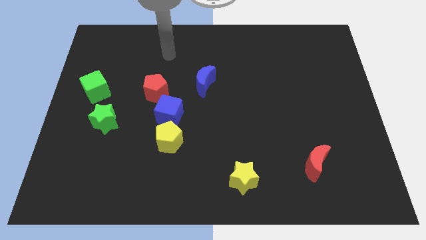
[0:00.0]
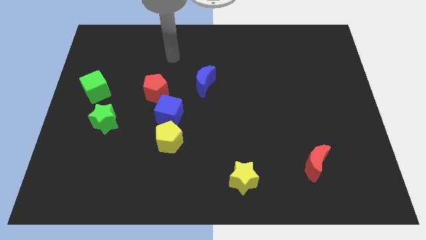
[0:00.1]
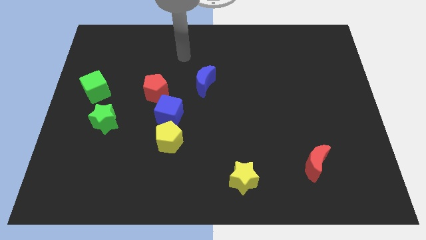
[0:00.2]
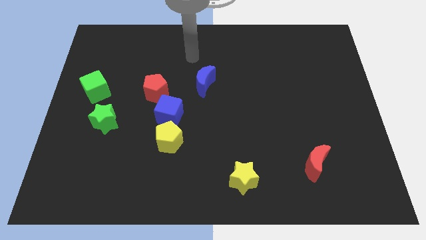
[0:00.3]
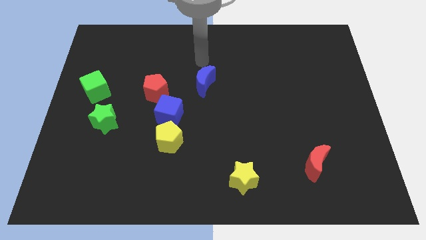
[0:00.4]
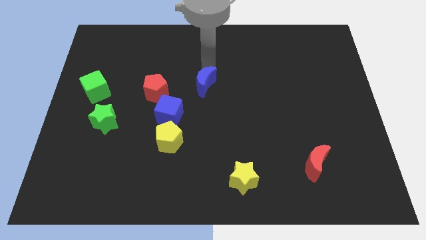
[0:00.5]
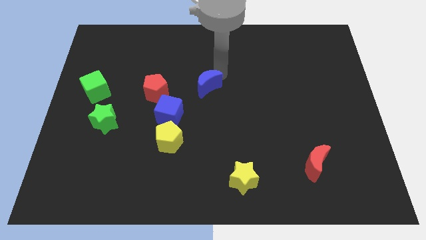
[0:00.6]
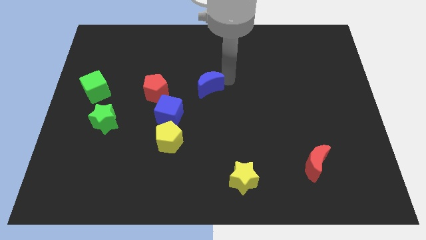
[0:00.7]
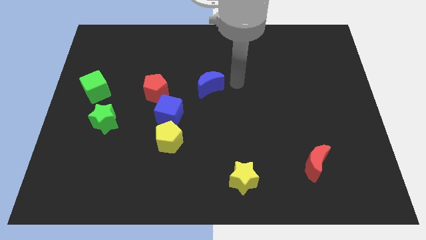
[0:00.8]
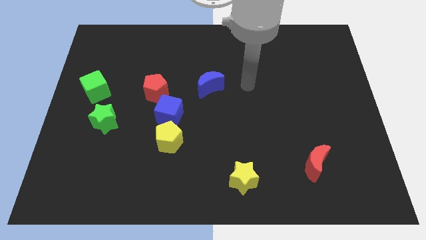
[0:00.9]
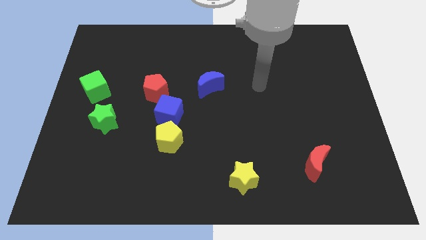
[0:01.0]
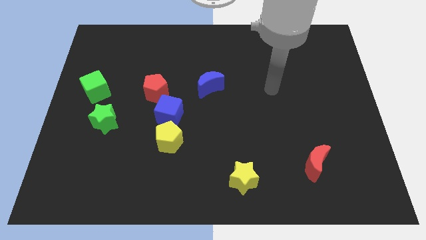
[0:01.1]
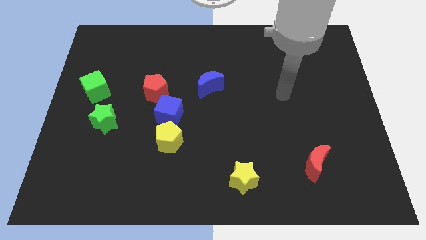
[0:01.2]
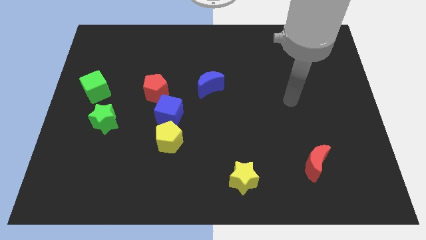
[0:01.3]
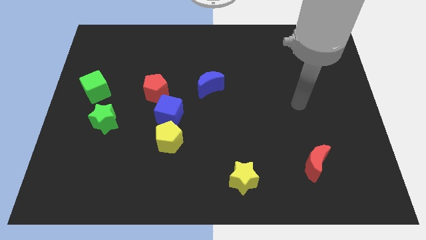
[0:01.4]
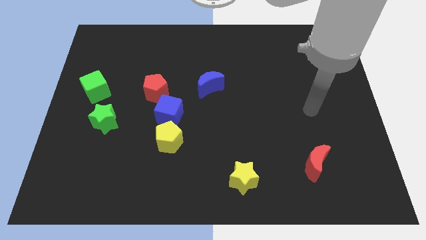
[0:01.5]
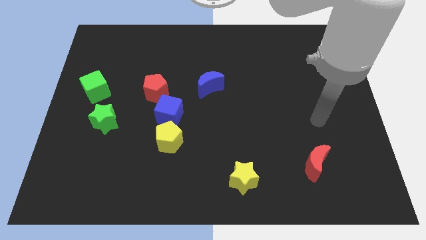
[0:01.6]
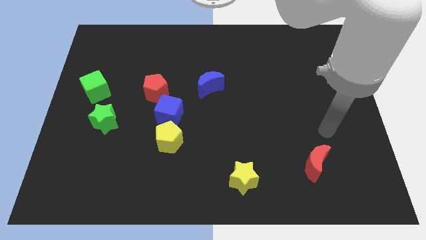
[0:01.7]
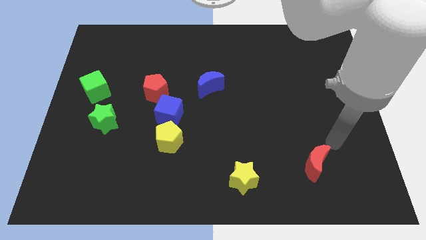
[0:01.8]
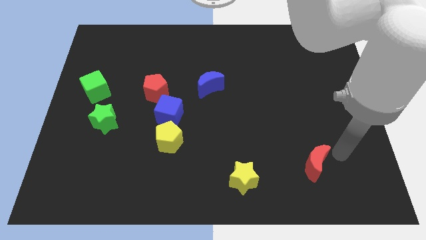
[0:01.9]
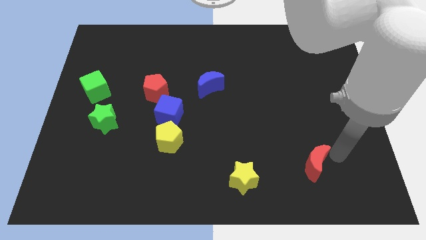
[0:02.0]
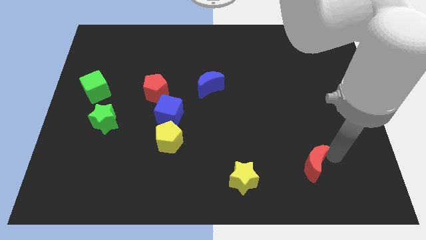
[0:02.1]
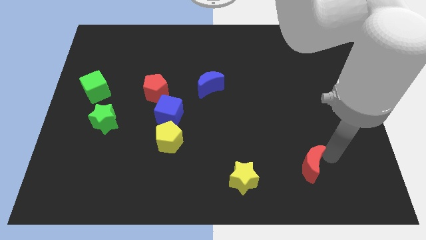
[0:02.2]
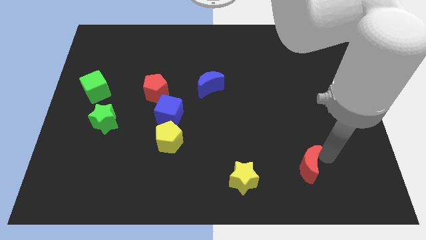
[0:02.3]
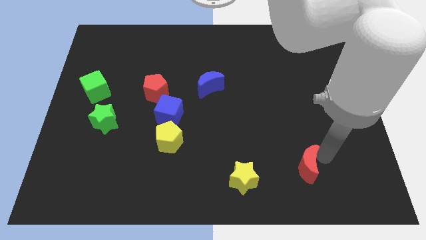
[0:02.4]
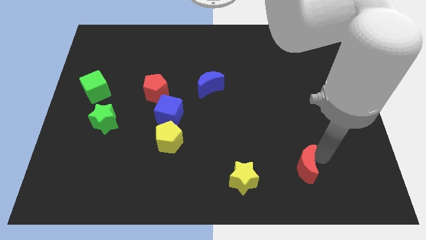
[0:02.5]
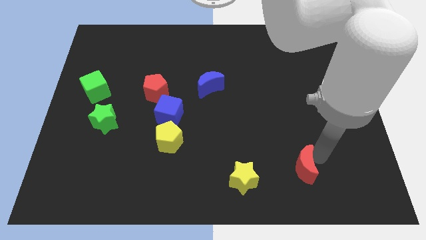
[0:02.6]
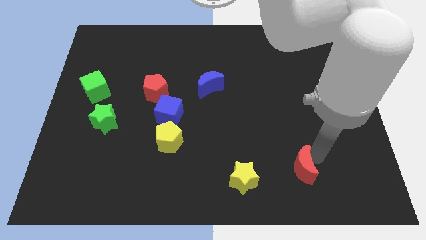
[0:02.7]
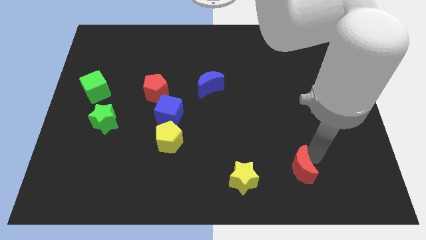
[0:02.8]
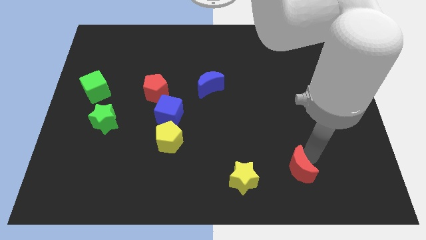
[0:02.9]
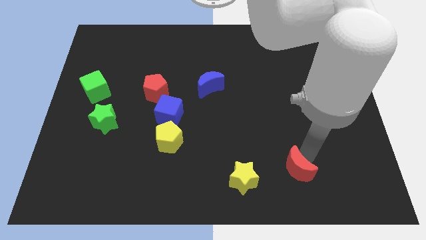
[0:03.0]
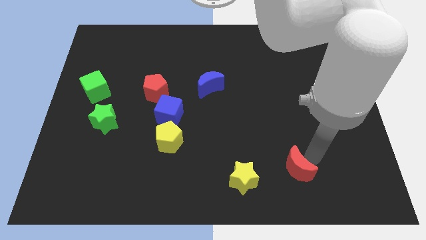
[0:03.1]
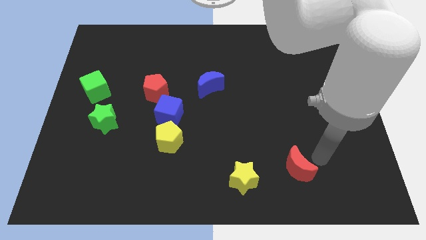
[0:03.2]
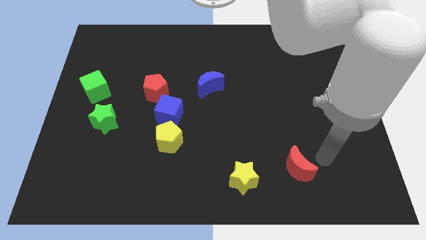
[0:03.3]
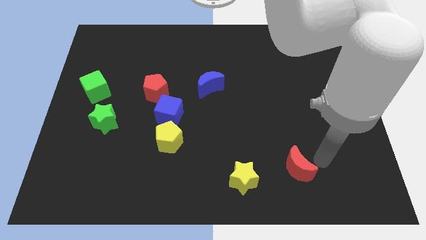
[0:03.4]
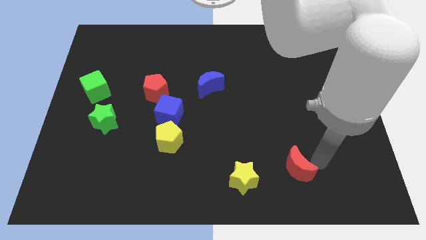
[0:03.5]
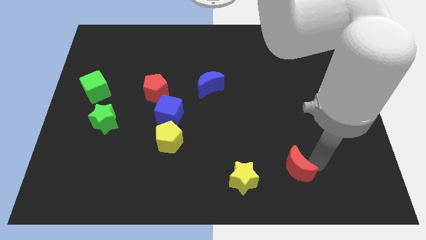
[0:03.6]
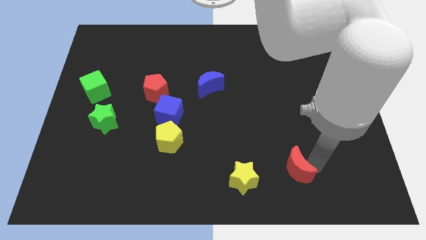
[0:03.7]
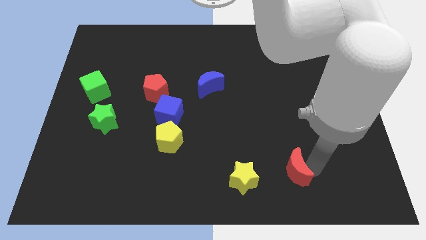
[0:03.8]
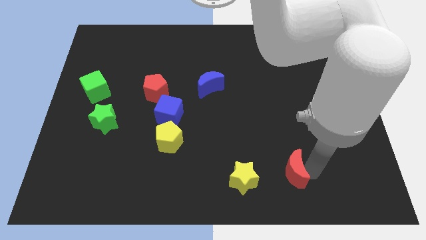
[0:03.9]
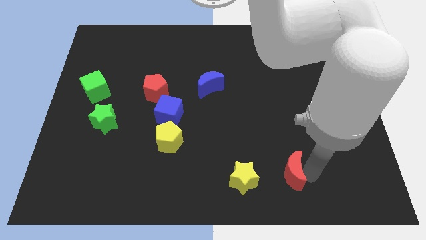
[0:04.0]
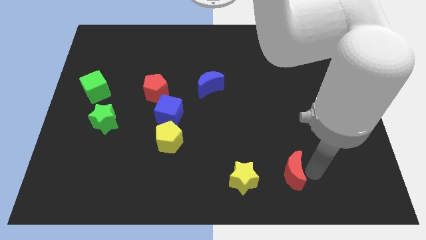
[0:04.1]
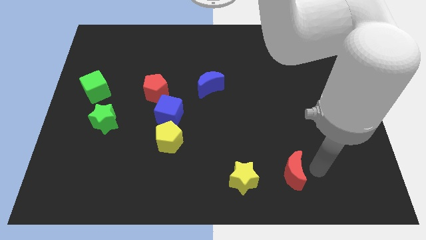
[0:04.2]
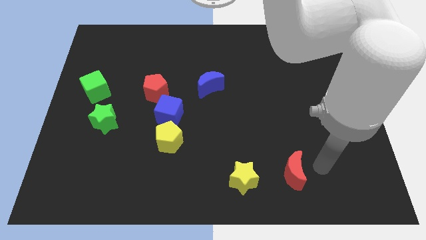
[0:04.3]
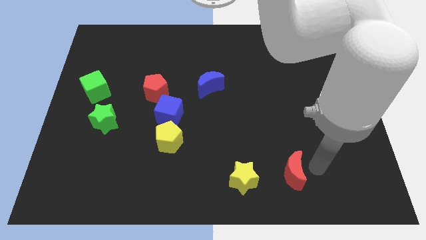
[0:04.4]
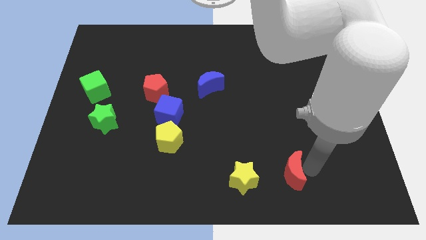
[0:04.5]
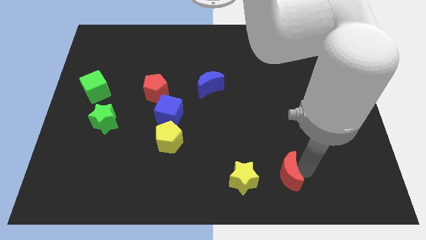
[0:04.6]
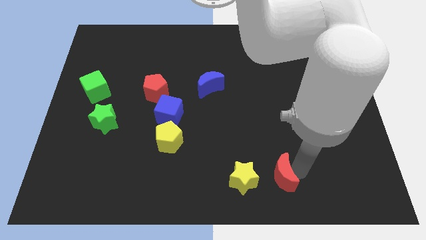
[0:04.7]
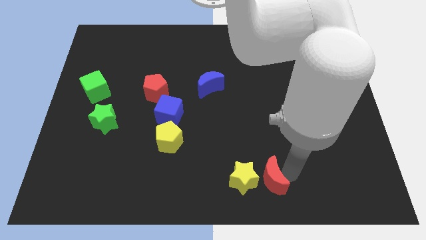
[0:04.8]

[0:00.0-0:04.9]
put the red moon to the yellow star

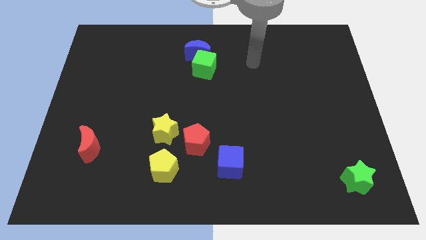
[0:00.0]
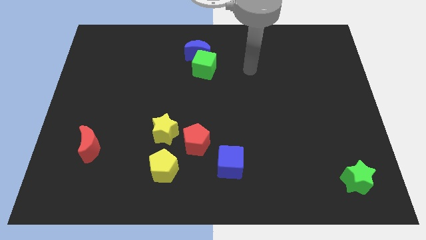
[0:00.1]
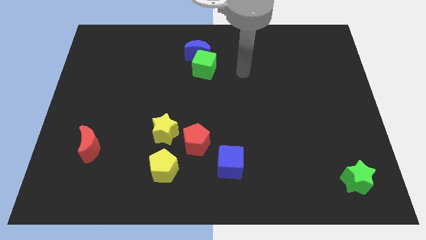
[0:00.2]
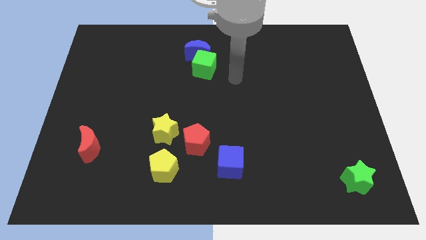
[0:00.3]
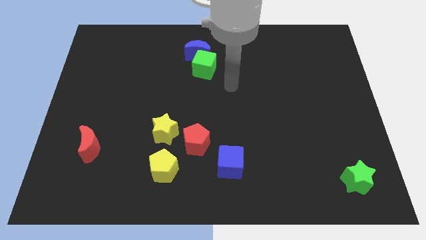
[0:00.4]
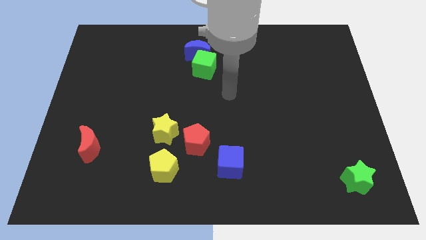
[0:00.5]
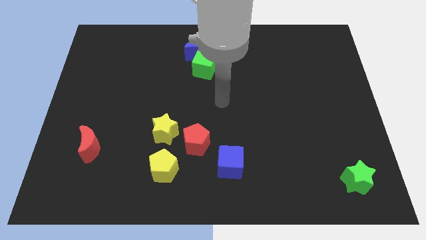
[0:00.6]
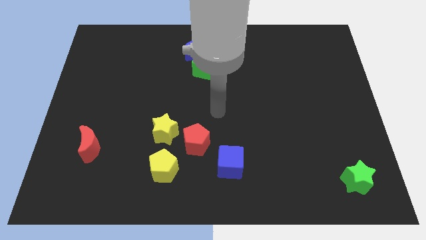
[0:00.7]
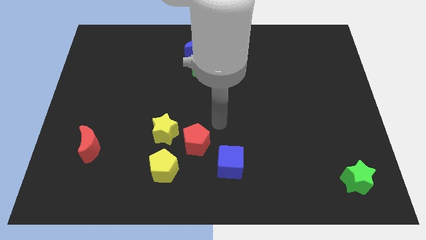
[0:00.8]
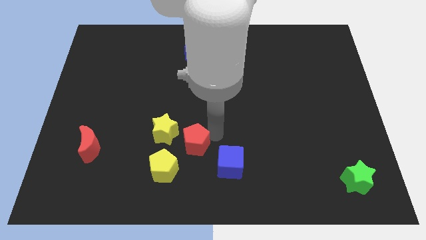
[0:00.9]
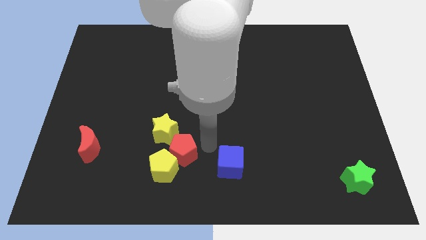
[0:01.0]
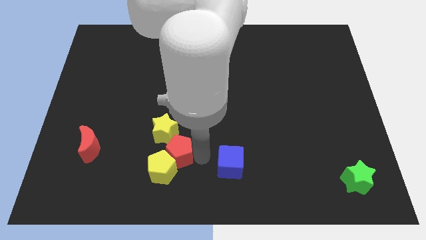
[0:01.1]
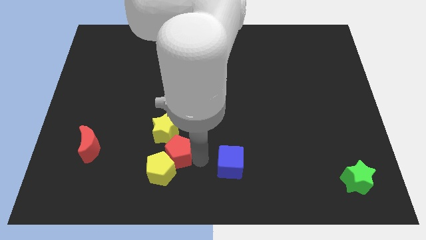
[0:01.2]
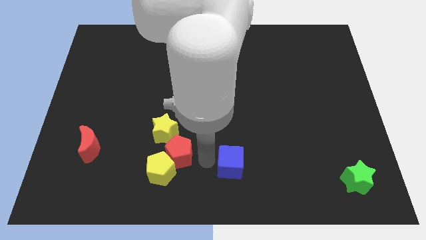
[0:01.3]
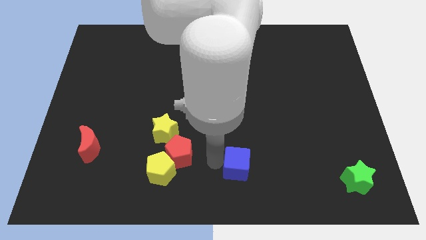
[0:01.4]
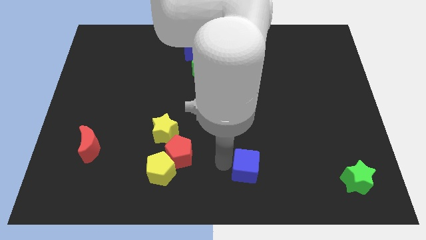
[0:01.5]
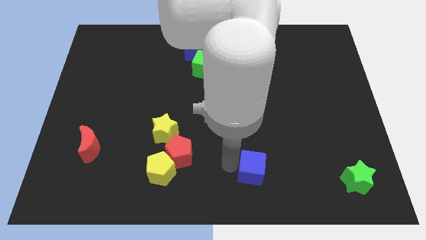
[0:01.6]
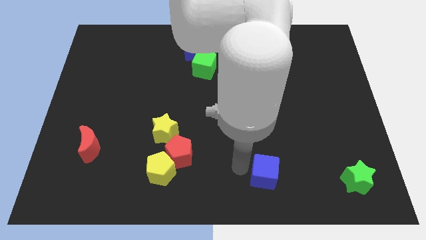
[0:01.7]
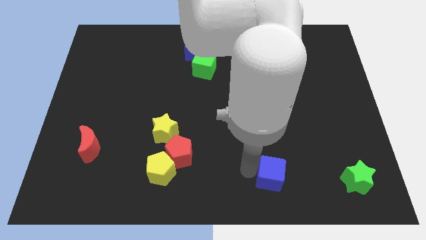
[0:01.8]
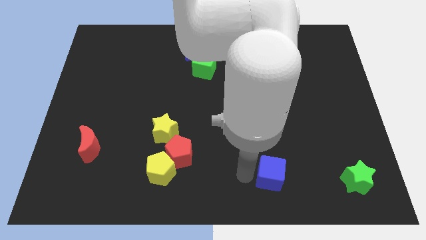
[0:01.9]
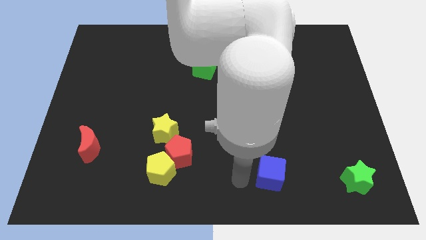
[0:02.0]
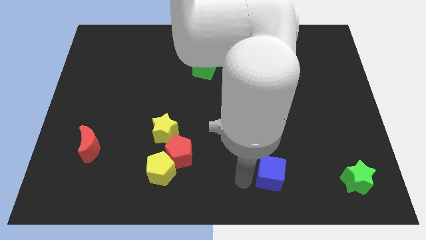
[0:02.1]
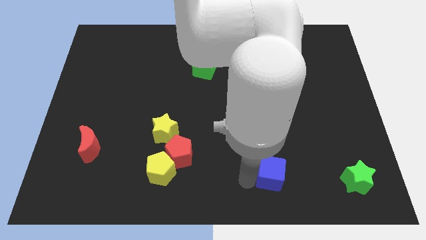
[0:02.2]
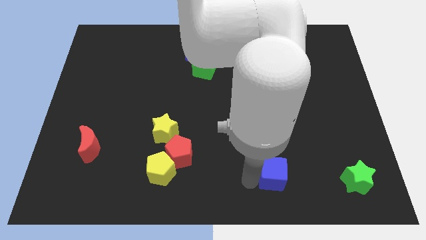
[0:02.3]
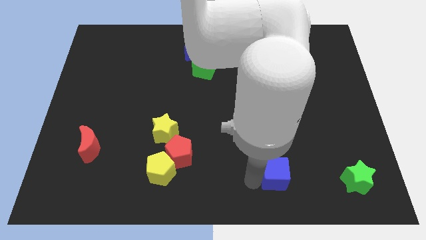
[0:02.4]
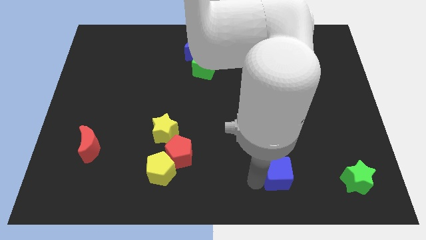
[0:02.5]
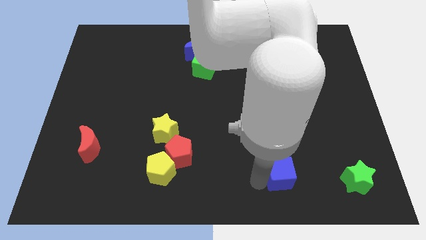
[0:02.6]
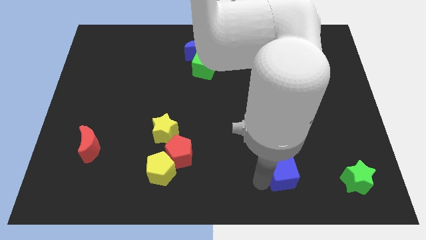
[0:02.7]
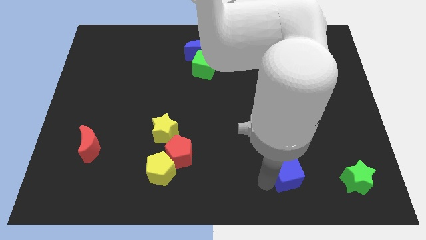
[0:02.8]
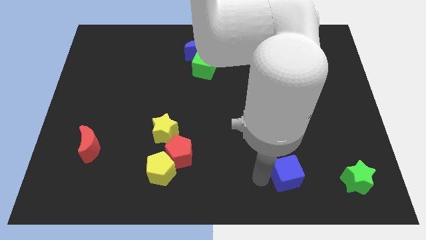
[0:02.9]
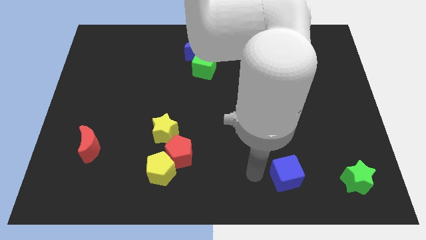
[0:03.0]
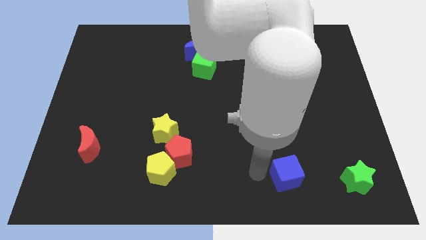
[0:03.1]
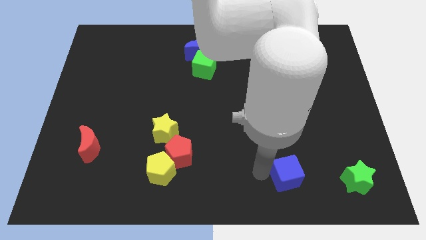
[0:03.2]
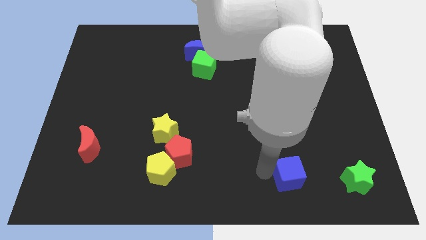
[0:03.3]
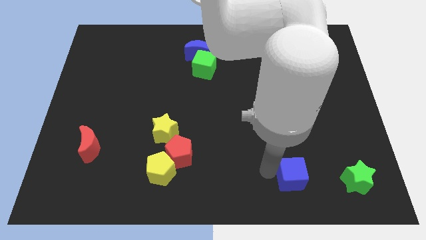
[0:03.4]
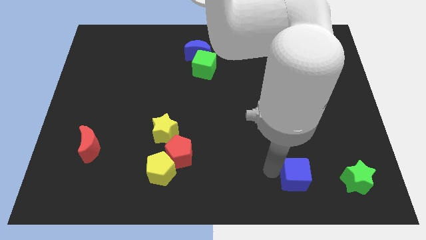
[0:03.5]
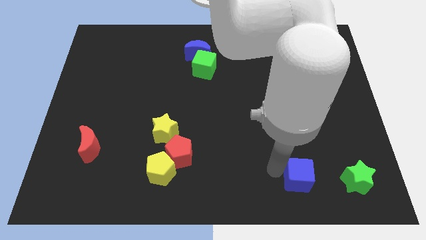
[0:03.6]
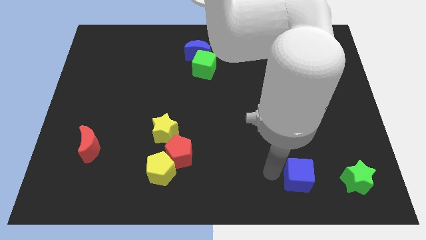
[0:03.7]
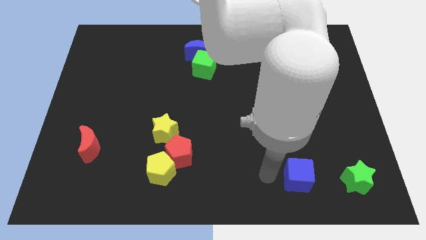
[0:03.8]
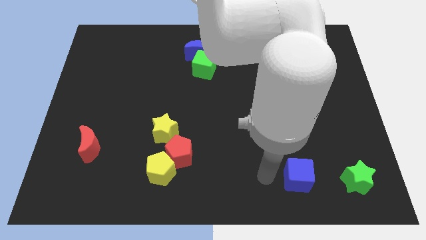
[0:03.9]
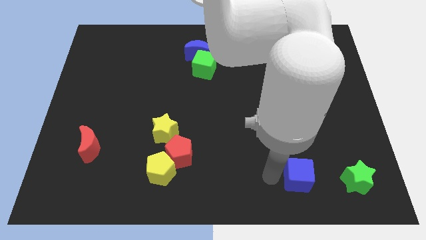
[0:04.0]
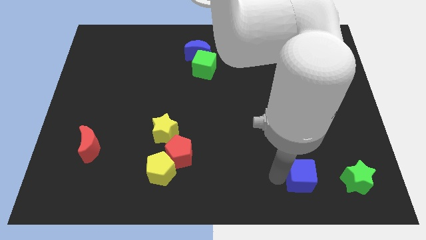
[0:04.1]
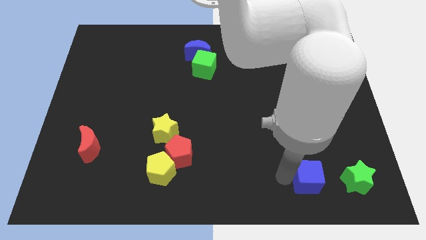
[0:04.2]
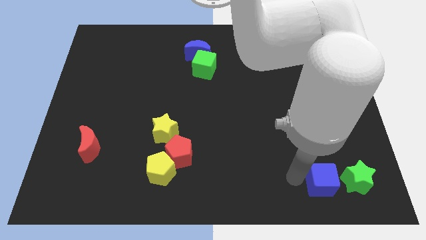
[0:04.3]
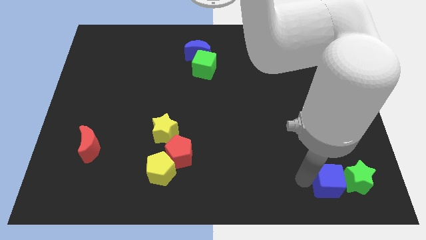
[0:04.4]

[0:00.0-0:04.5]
move the blue cube to the green star
